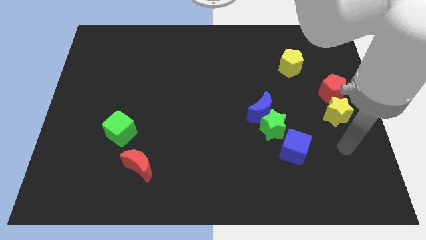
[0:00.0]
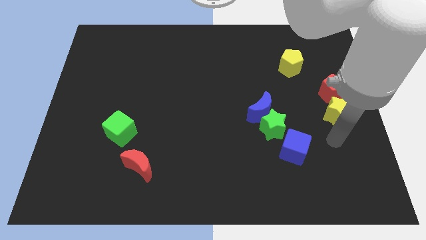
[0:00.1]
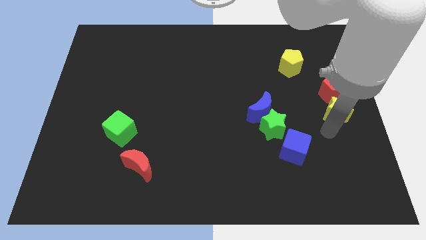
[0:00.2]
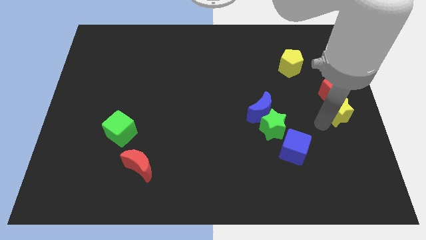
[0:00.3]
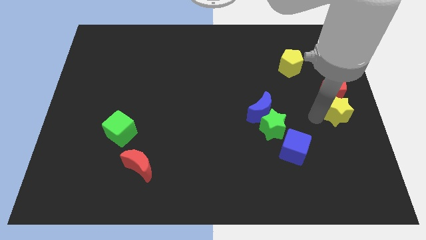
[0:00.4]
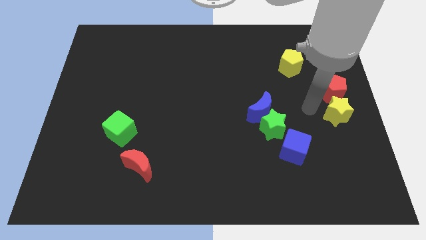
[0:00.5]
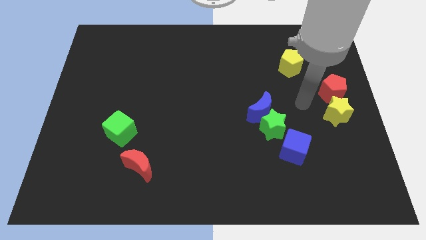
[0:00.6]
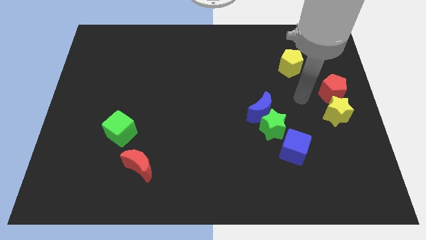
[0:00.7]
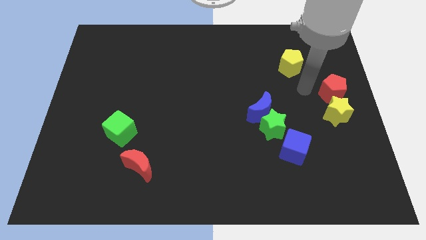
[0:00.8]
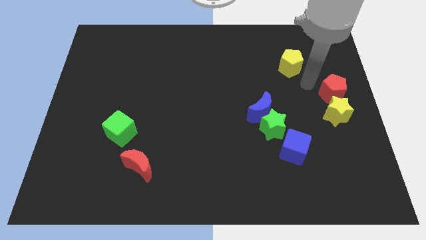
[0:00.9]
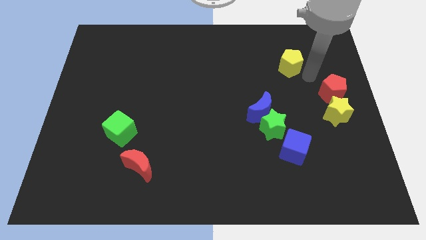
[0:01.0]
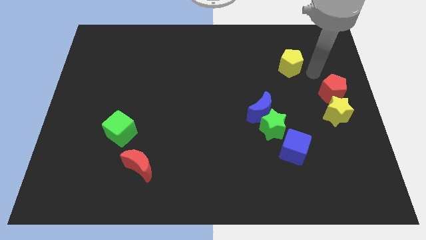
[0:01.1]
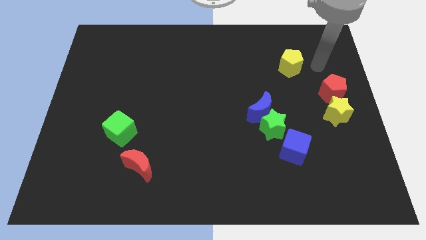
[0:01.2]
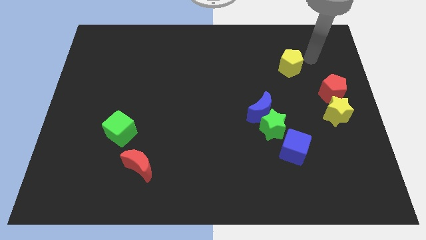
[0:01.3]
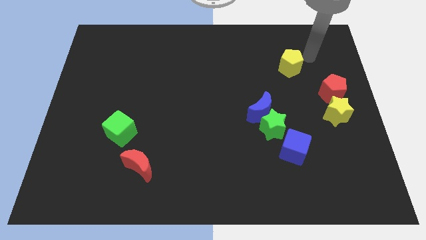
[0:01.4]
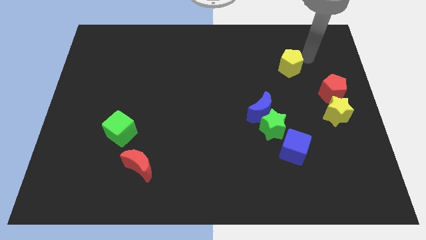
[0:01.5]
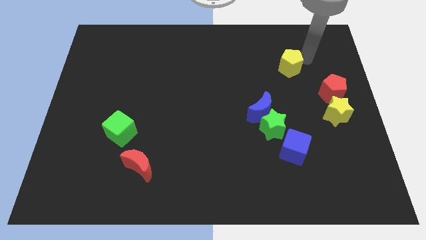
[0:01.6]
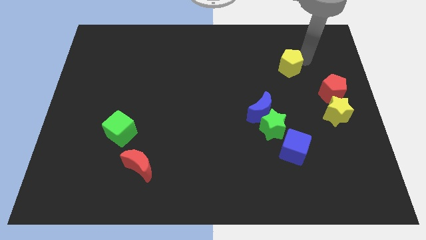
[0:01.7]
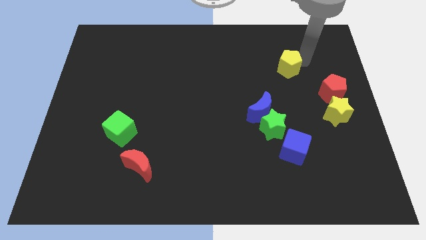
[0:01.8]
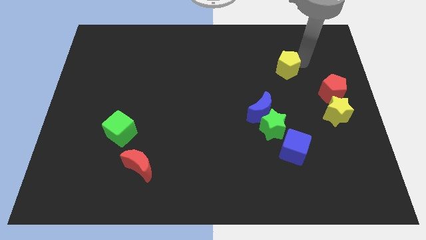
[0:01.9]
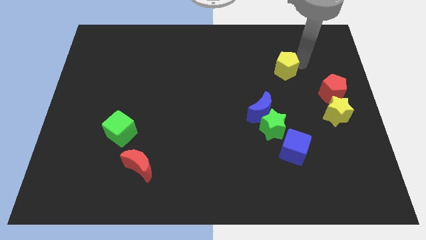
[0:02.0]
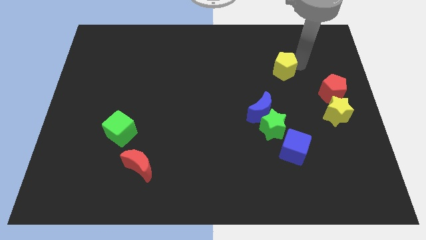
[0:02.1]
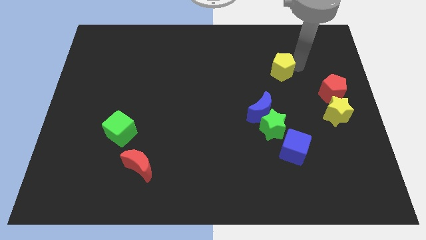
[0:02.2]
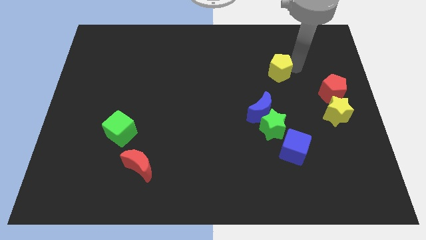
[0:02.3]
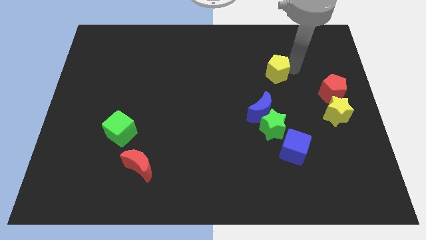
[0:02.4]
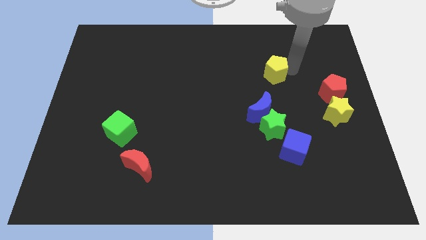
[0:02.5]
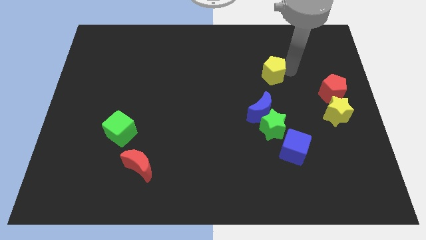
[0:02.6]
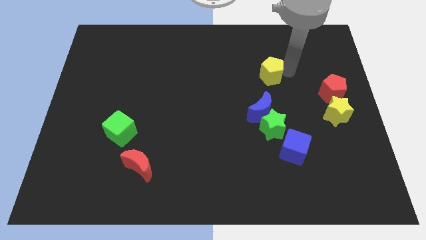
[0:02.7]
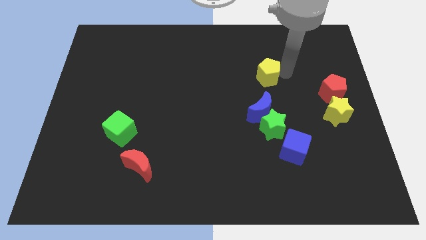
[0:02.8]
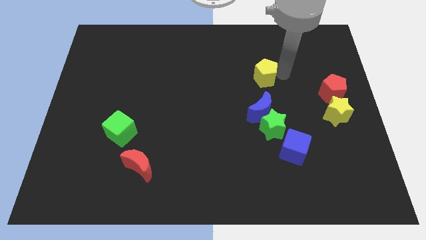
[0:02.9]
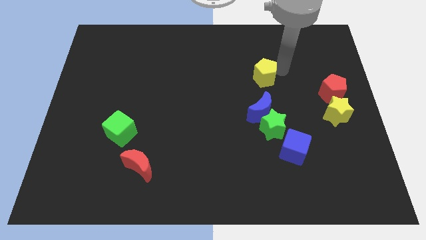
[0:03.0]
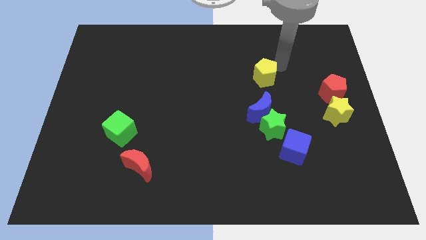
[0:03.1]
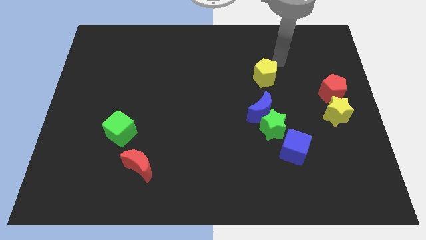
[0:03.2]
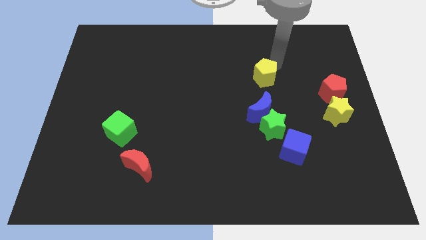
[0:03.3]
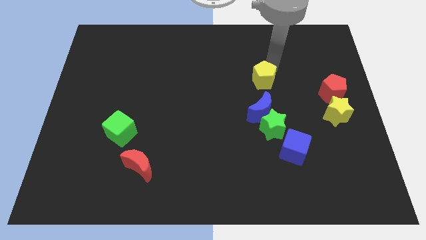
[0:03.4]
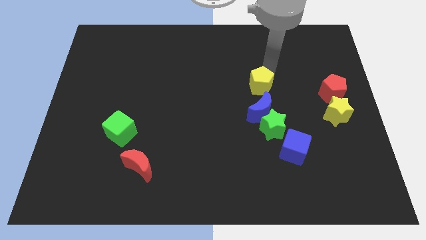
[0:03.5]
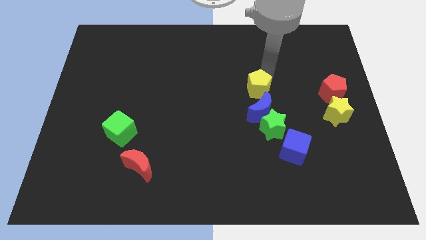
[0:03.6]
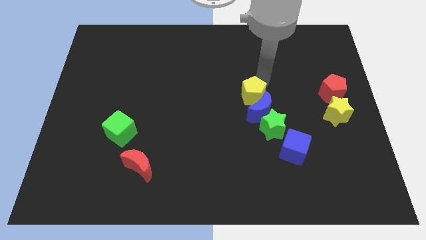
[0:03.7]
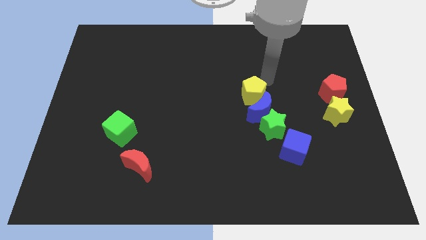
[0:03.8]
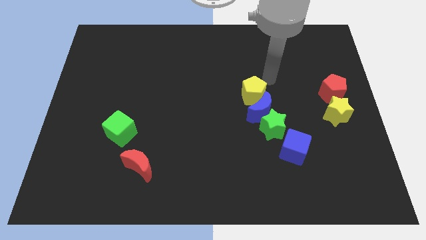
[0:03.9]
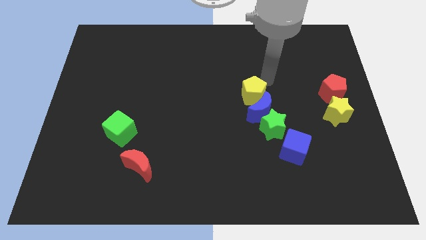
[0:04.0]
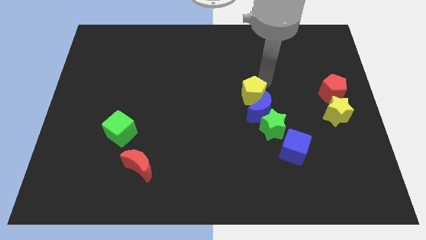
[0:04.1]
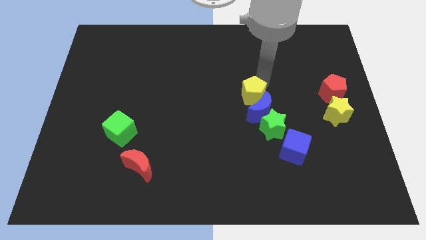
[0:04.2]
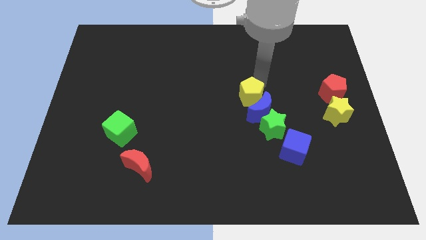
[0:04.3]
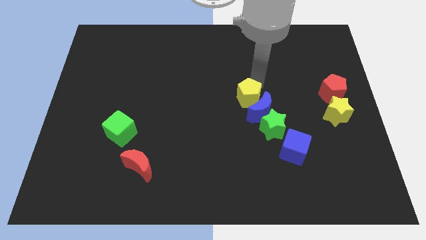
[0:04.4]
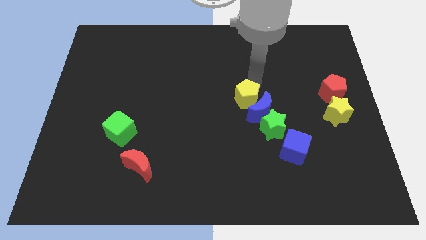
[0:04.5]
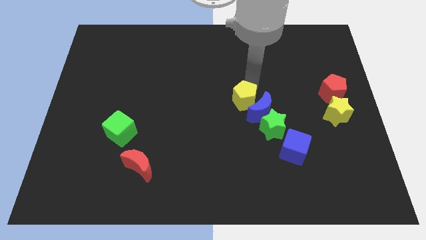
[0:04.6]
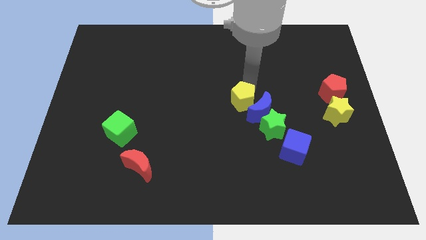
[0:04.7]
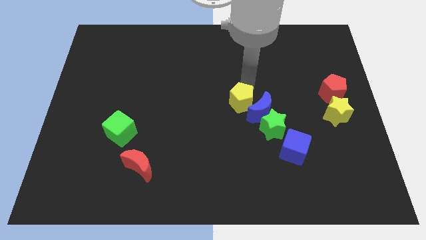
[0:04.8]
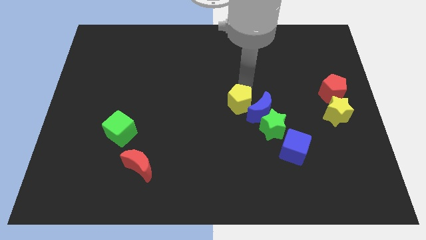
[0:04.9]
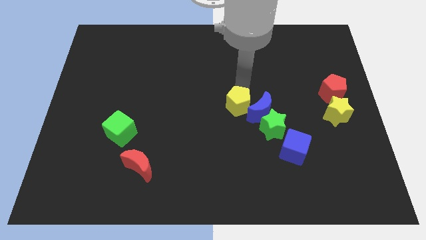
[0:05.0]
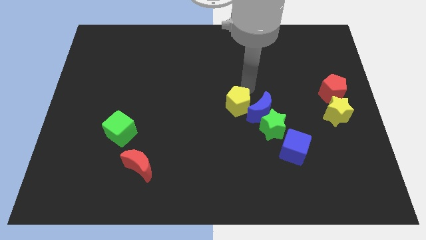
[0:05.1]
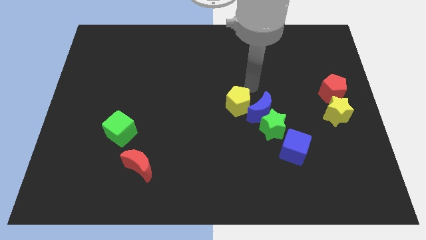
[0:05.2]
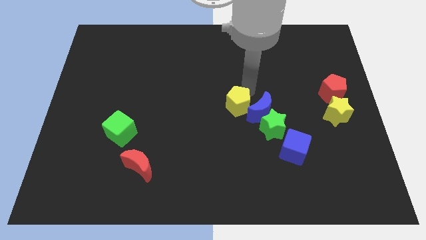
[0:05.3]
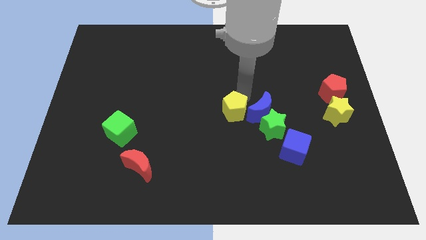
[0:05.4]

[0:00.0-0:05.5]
move the yellow pentagon downwards and left diagonally

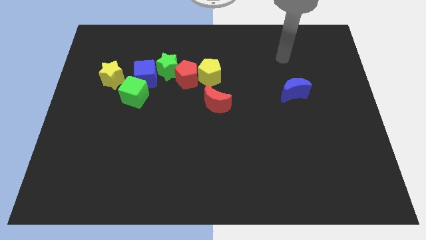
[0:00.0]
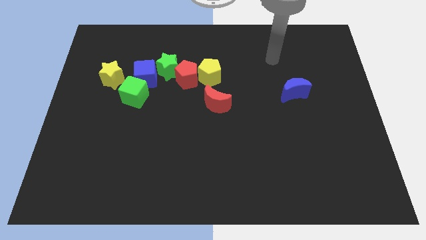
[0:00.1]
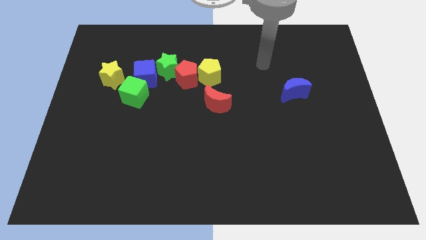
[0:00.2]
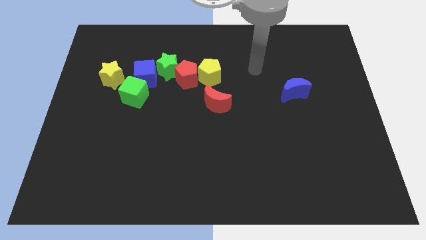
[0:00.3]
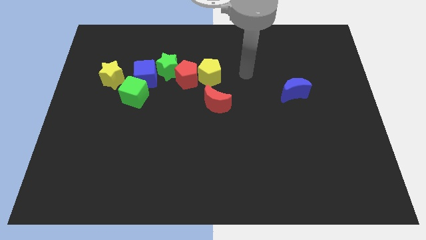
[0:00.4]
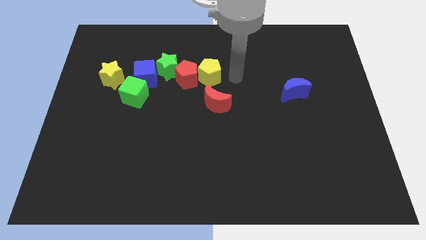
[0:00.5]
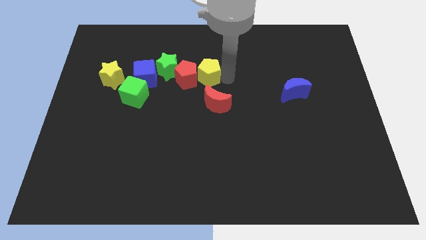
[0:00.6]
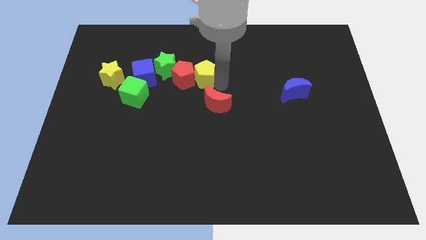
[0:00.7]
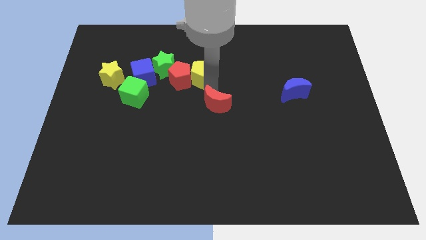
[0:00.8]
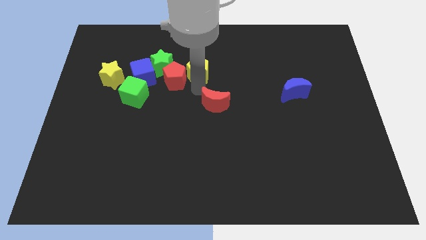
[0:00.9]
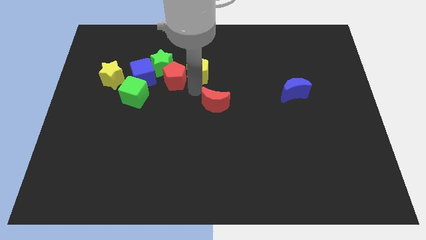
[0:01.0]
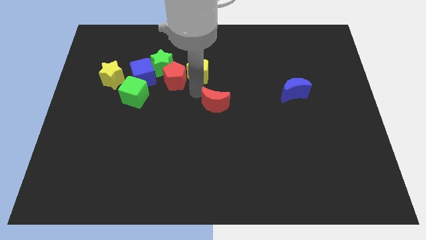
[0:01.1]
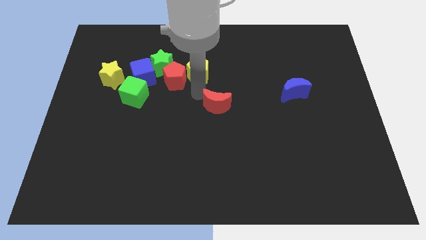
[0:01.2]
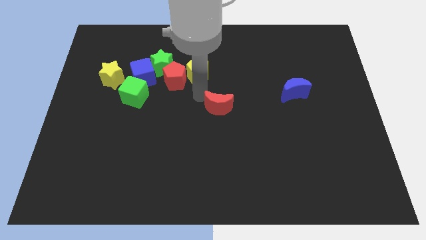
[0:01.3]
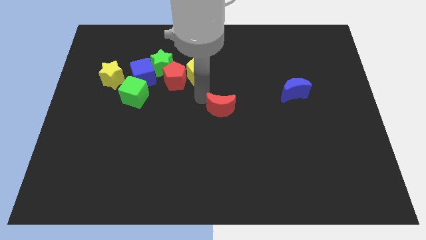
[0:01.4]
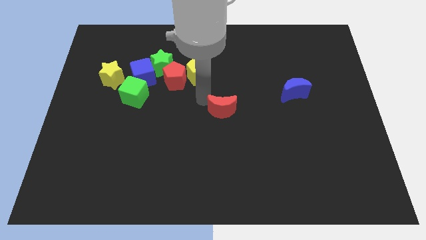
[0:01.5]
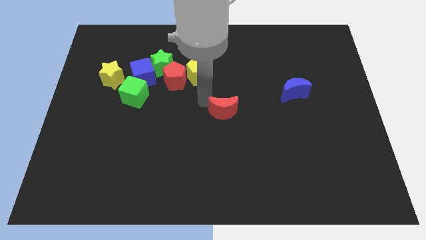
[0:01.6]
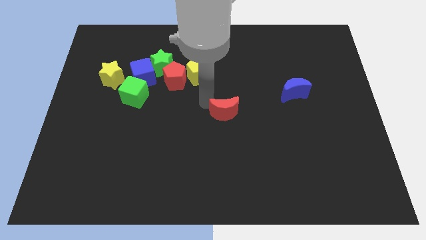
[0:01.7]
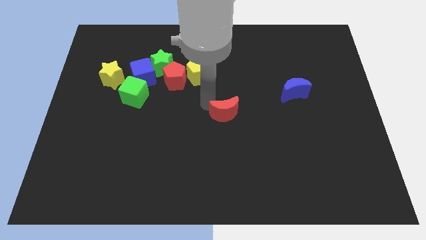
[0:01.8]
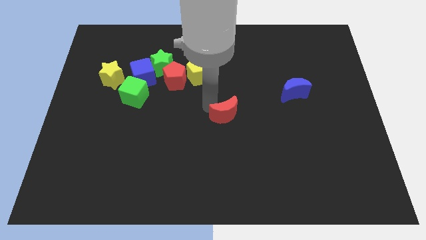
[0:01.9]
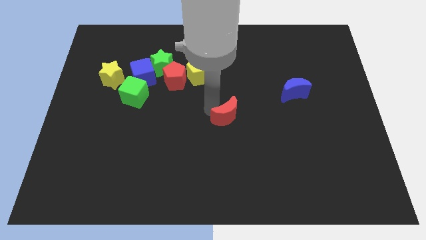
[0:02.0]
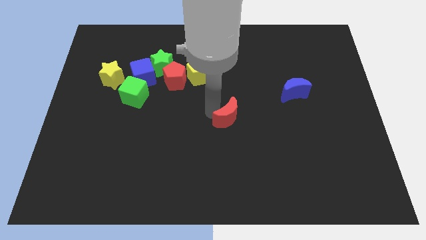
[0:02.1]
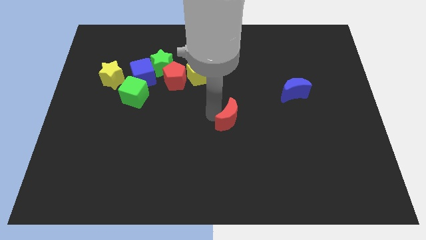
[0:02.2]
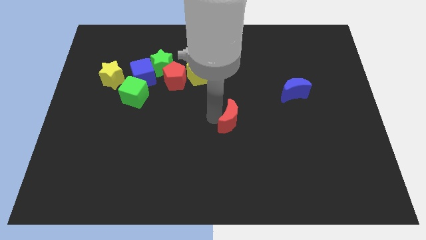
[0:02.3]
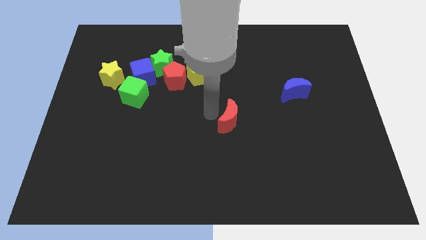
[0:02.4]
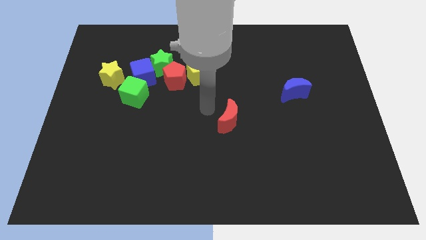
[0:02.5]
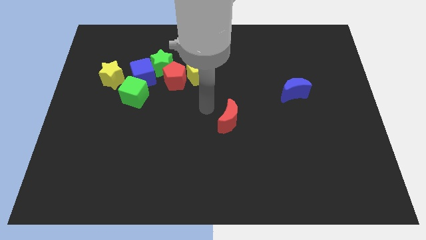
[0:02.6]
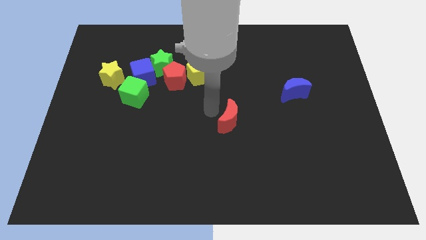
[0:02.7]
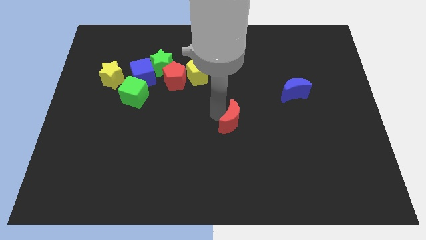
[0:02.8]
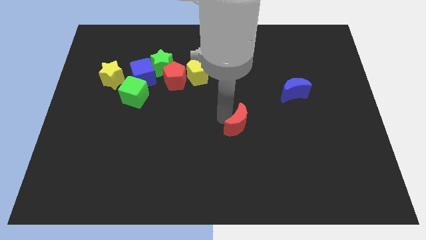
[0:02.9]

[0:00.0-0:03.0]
move the red moon downwards and right a little
